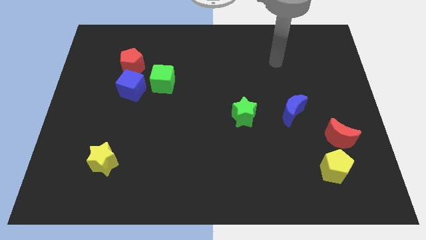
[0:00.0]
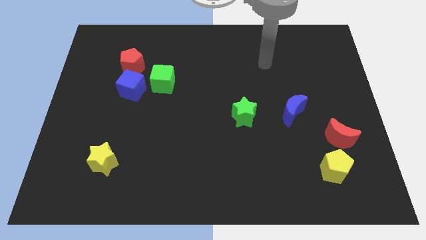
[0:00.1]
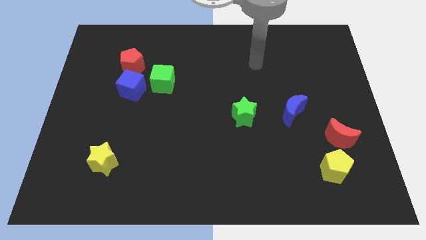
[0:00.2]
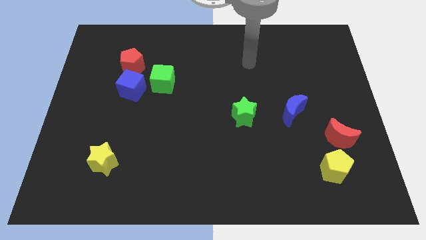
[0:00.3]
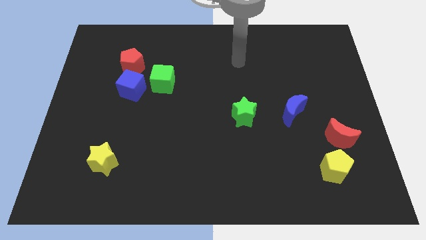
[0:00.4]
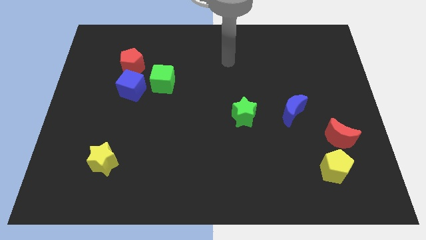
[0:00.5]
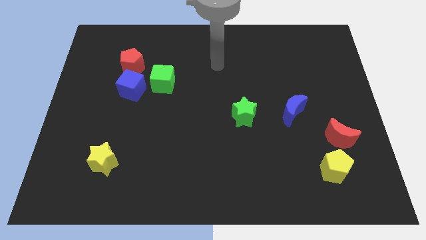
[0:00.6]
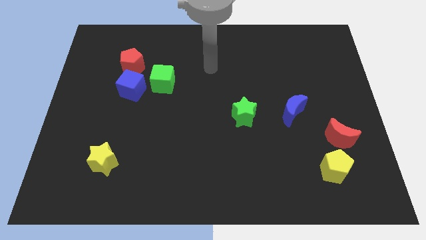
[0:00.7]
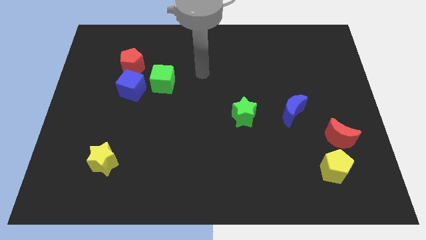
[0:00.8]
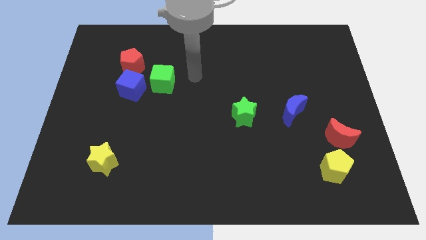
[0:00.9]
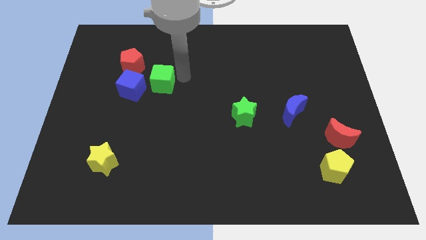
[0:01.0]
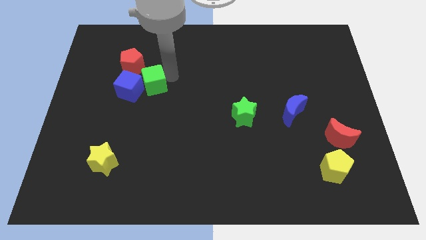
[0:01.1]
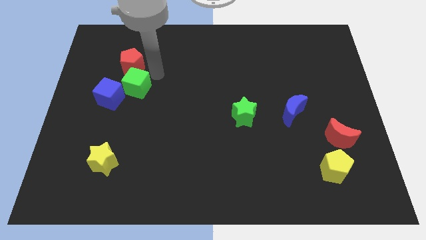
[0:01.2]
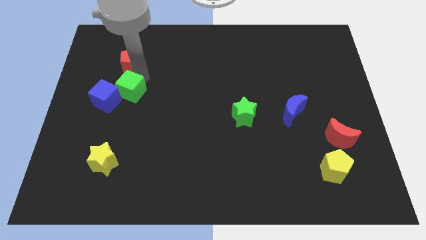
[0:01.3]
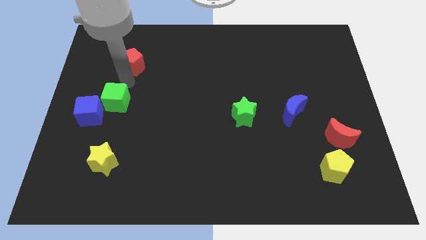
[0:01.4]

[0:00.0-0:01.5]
pull the blue cube apart from the green cube and red pentagon

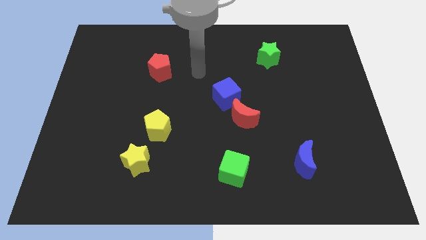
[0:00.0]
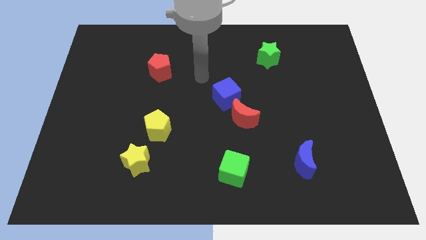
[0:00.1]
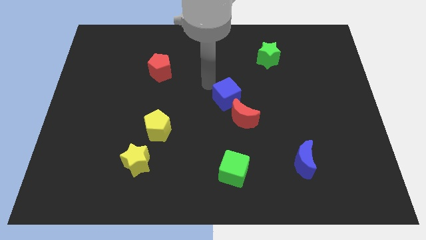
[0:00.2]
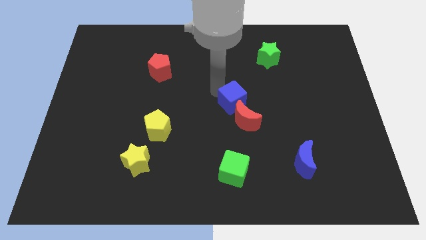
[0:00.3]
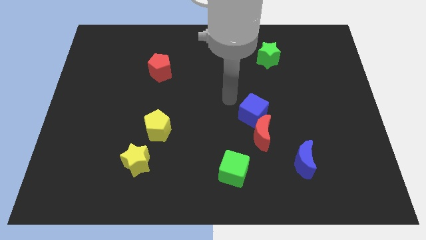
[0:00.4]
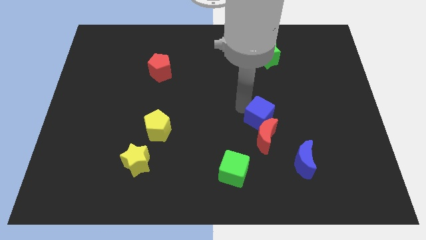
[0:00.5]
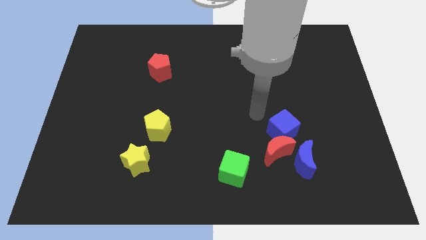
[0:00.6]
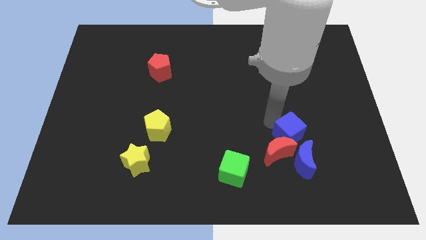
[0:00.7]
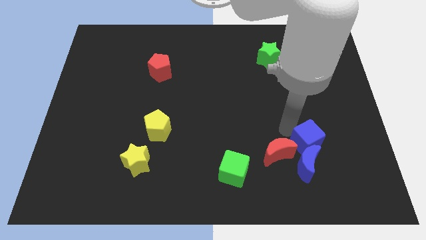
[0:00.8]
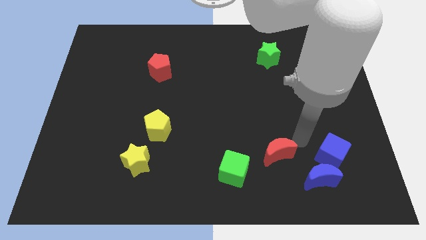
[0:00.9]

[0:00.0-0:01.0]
separate the red moon from the blue cube

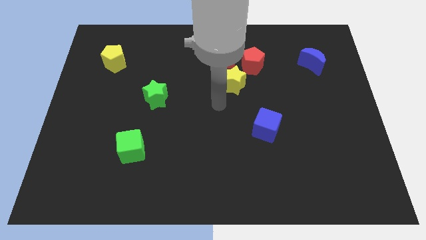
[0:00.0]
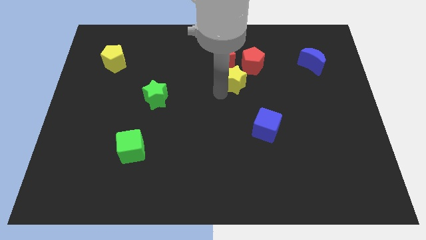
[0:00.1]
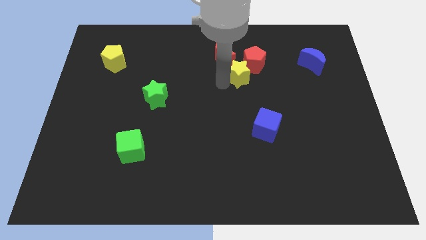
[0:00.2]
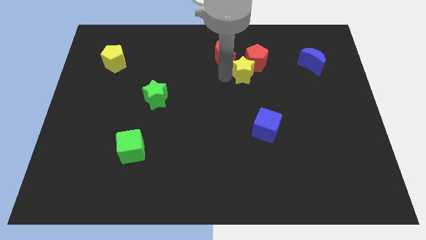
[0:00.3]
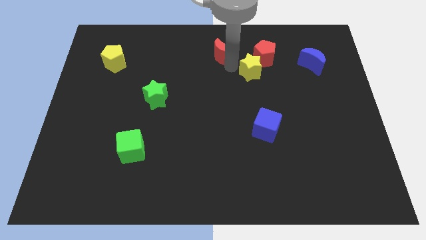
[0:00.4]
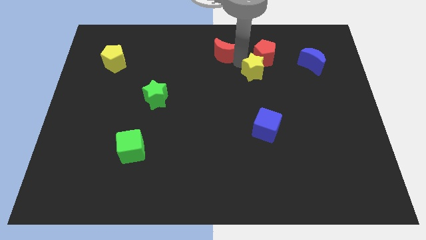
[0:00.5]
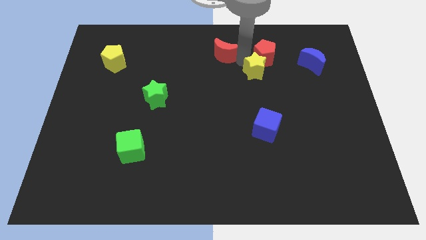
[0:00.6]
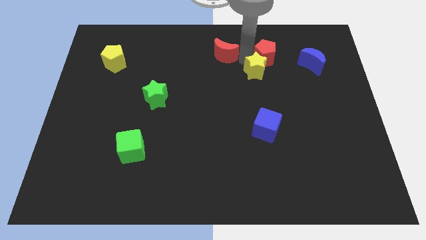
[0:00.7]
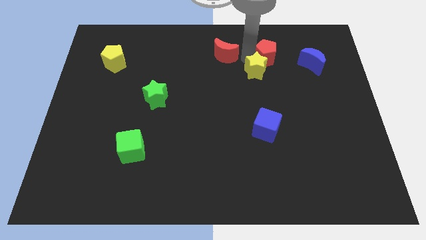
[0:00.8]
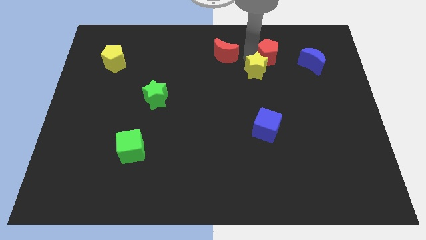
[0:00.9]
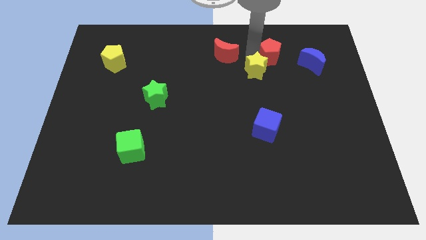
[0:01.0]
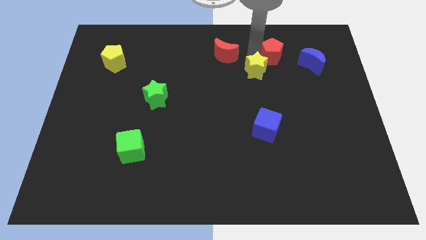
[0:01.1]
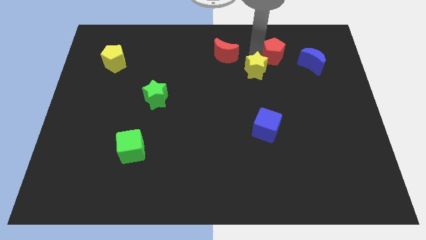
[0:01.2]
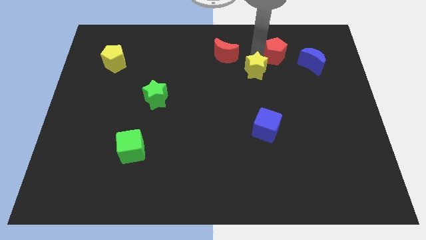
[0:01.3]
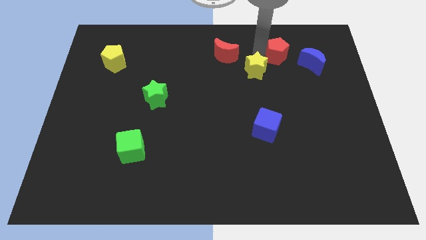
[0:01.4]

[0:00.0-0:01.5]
separate the red pentagon from the red moon and yellow star

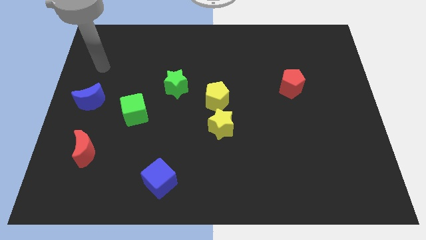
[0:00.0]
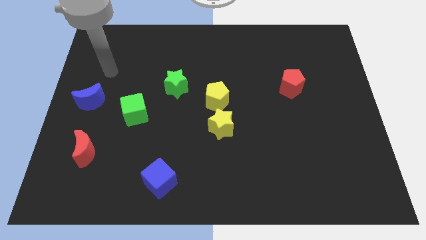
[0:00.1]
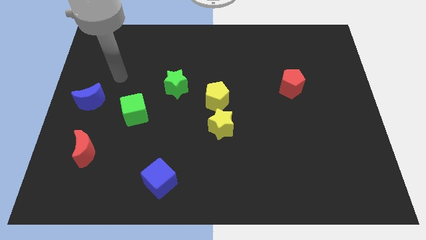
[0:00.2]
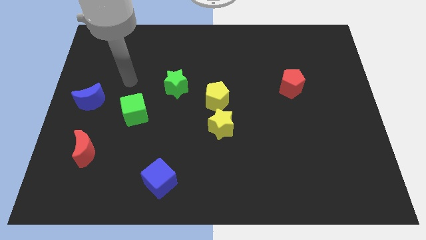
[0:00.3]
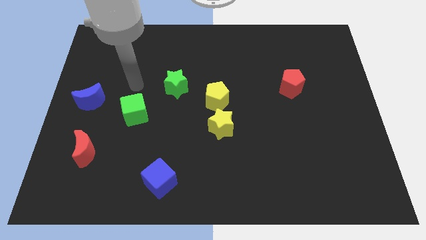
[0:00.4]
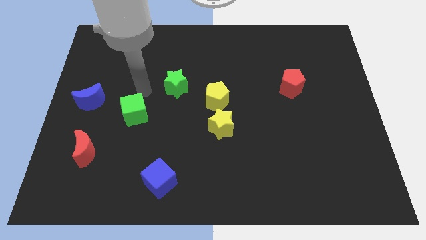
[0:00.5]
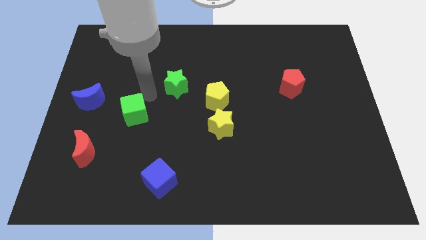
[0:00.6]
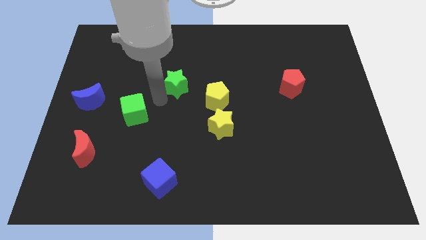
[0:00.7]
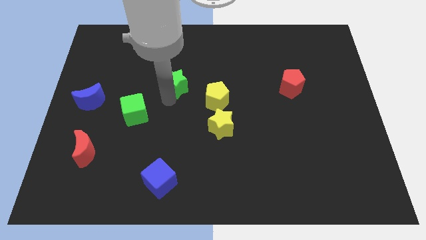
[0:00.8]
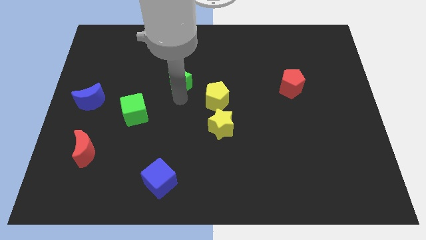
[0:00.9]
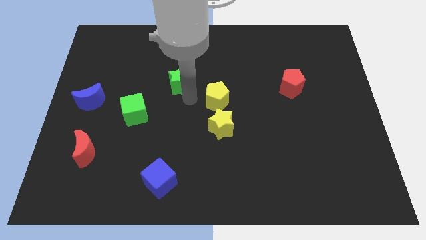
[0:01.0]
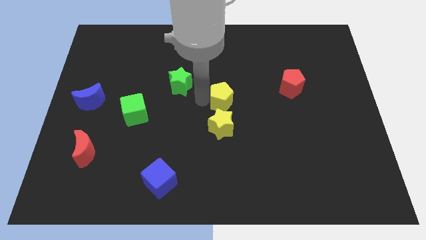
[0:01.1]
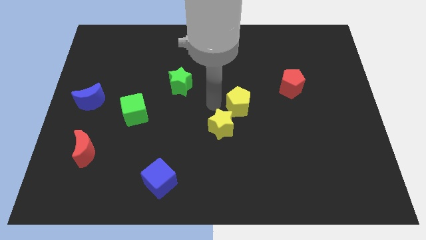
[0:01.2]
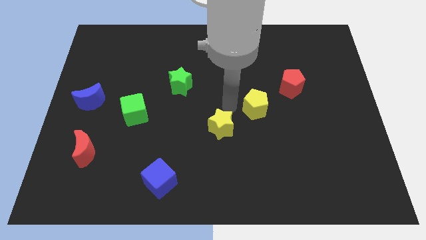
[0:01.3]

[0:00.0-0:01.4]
pull the yellow star apart from the yellow pentagon

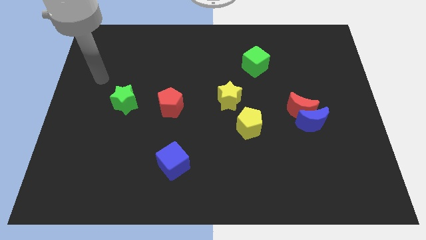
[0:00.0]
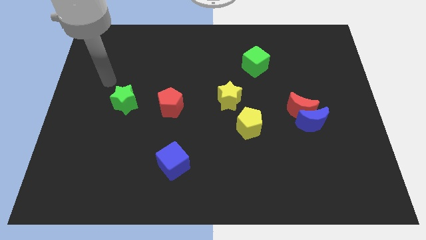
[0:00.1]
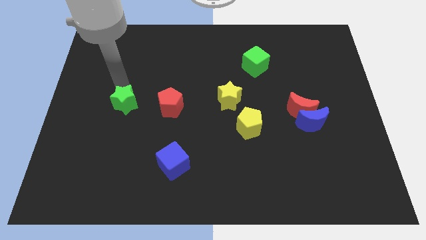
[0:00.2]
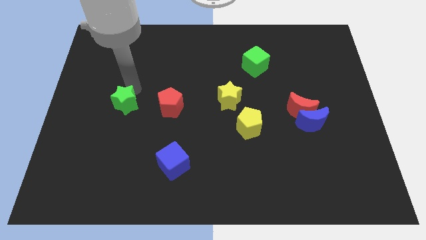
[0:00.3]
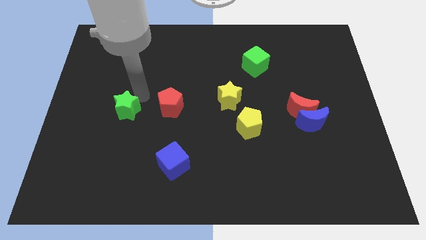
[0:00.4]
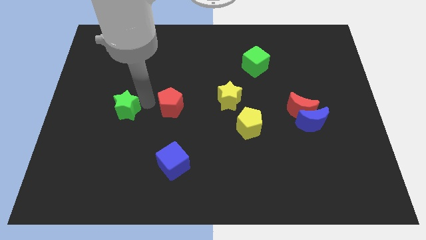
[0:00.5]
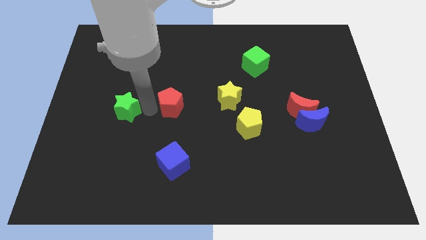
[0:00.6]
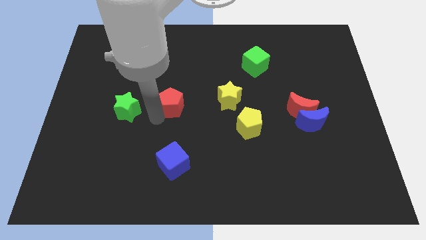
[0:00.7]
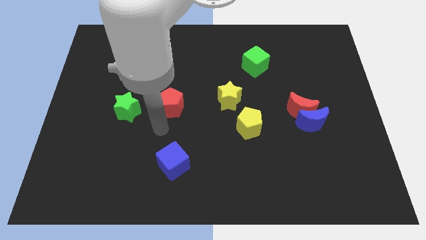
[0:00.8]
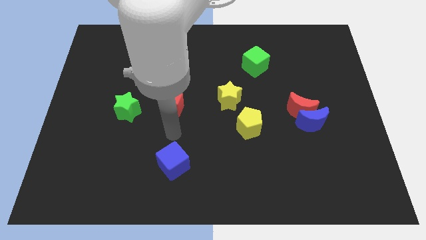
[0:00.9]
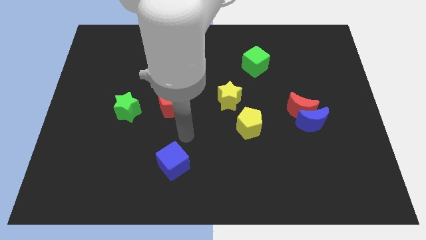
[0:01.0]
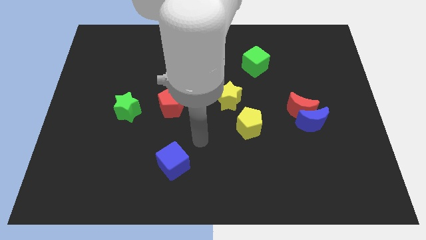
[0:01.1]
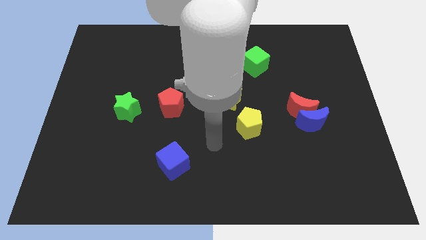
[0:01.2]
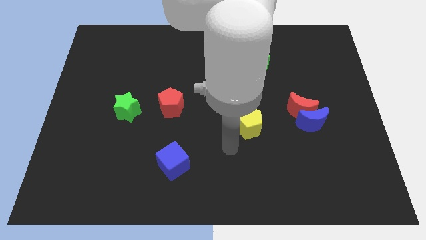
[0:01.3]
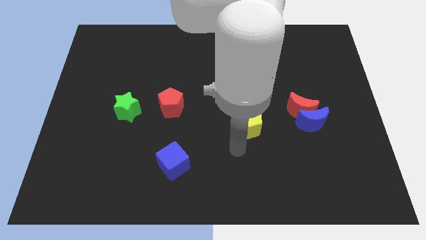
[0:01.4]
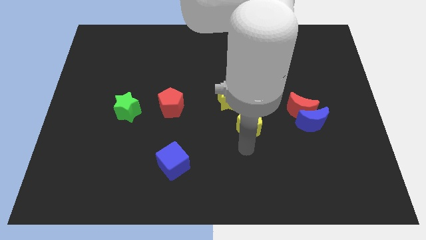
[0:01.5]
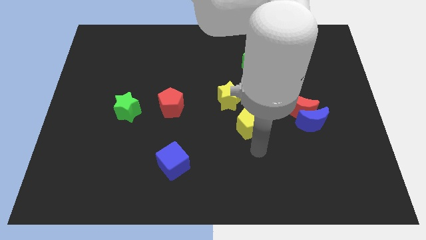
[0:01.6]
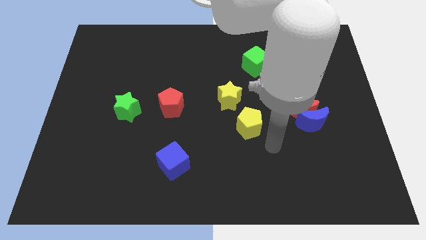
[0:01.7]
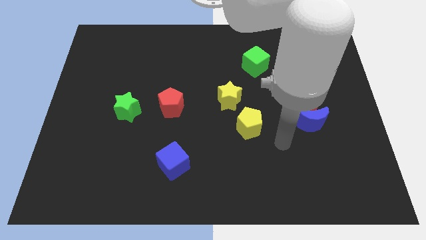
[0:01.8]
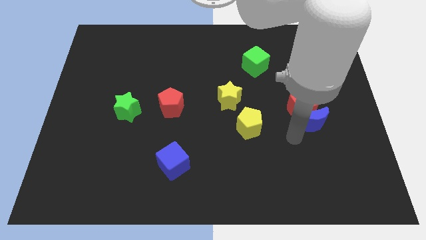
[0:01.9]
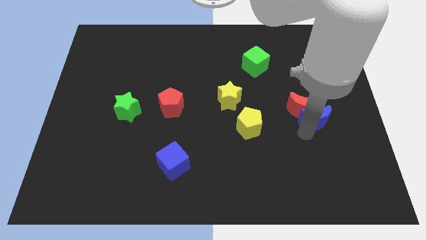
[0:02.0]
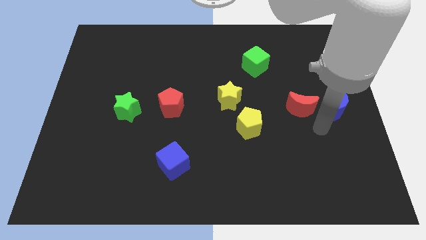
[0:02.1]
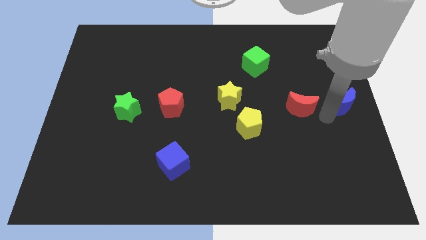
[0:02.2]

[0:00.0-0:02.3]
move the red moon away from the blue moon

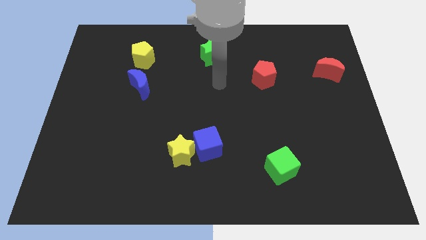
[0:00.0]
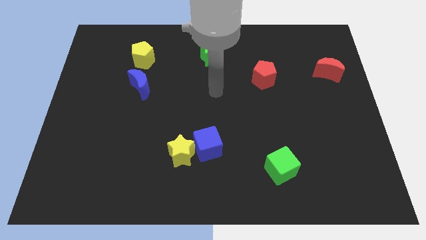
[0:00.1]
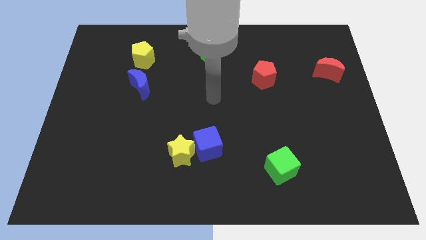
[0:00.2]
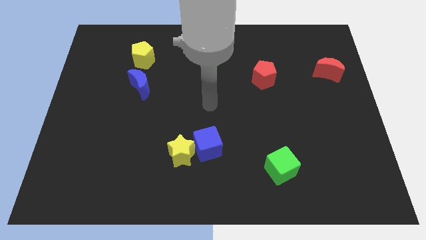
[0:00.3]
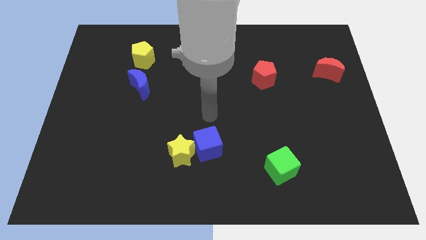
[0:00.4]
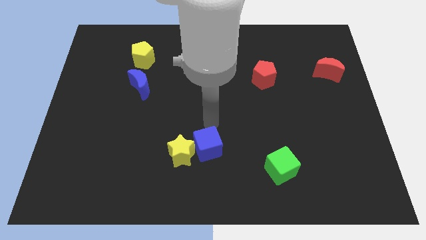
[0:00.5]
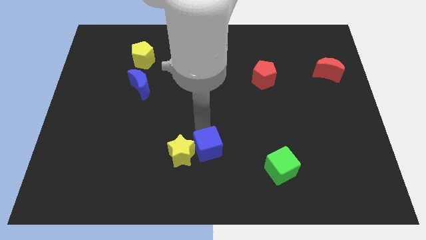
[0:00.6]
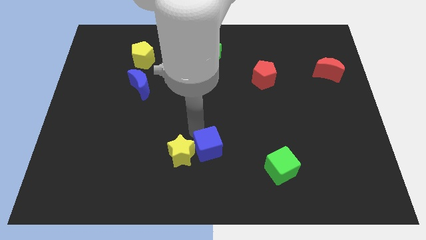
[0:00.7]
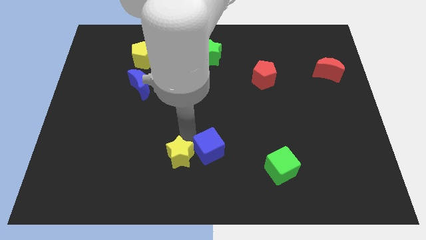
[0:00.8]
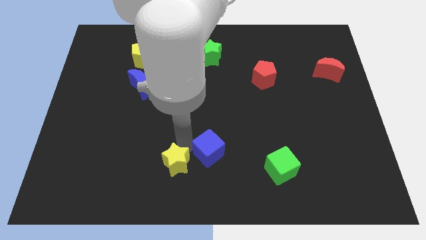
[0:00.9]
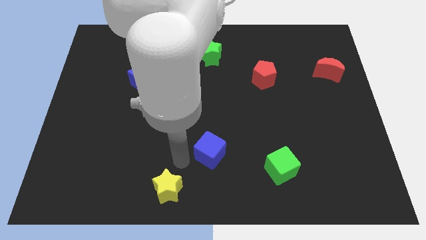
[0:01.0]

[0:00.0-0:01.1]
pull the blue cube apart from the yellow star

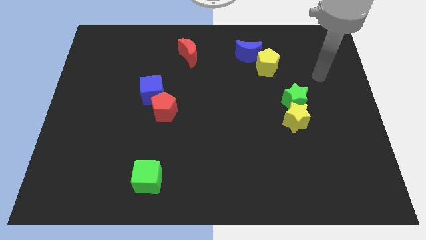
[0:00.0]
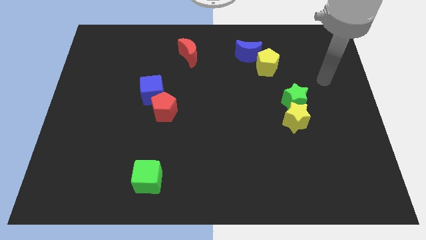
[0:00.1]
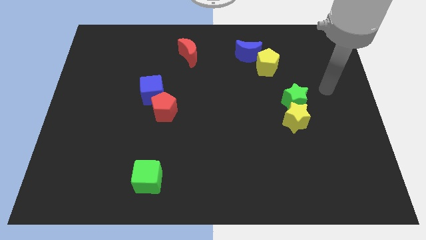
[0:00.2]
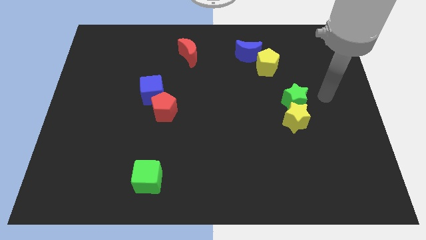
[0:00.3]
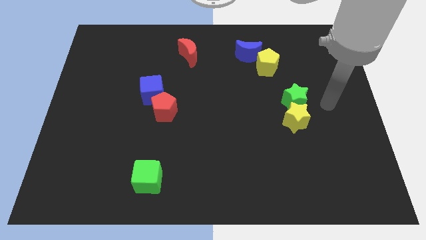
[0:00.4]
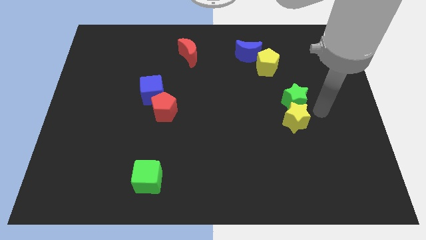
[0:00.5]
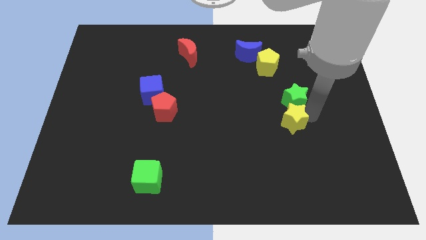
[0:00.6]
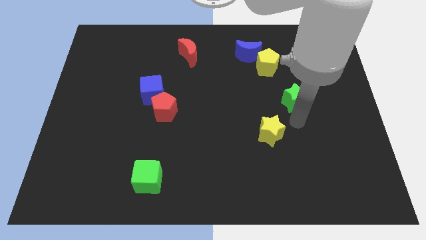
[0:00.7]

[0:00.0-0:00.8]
separate the green star from the yellow star
